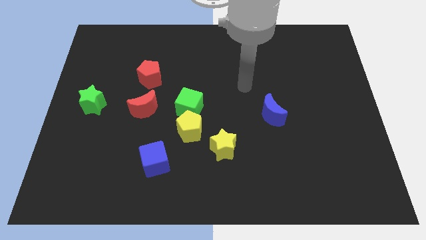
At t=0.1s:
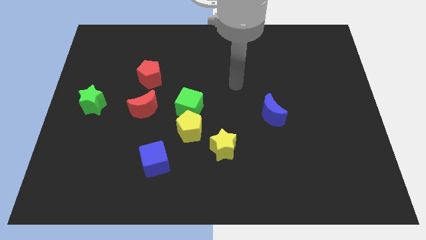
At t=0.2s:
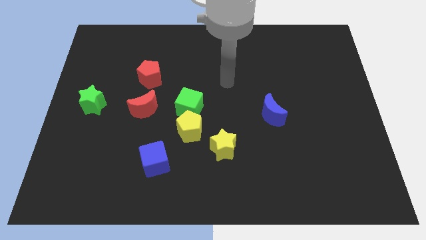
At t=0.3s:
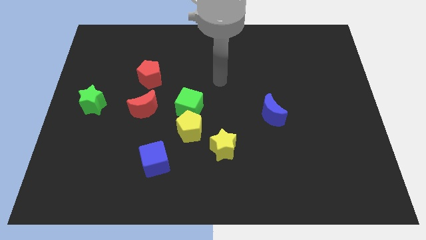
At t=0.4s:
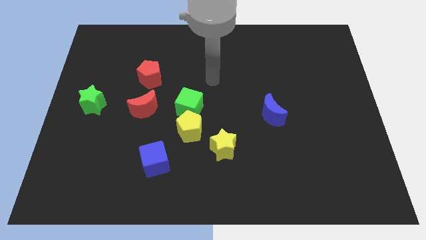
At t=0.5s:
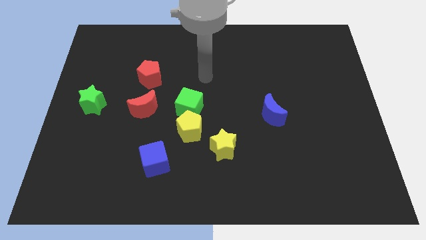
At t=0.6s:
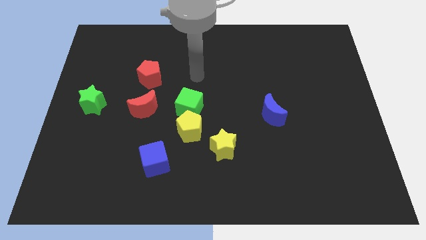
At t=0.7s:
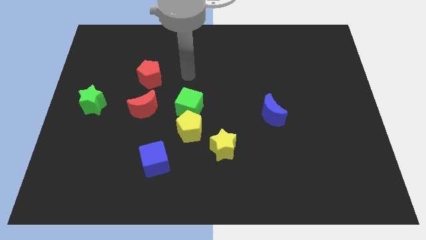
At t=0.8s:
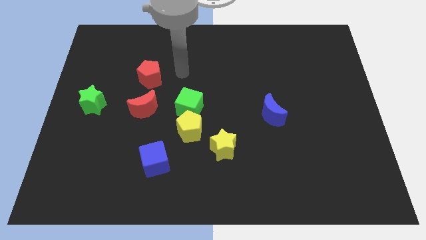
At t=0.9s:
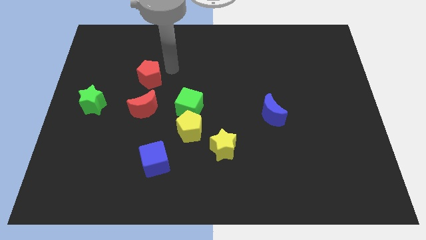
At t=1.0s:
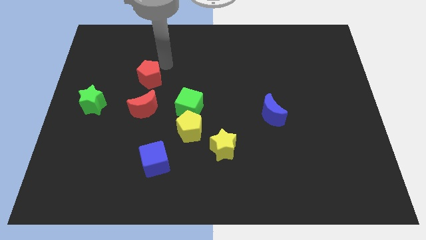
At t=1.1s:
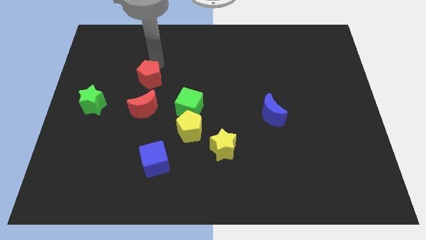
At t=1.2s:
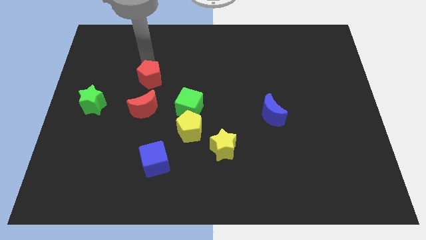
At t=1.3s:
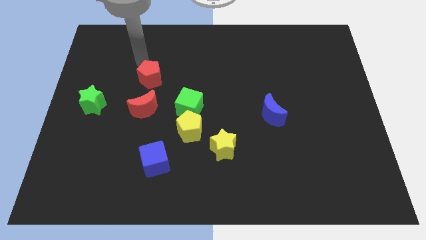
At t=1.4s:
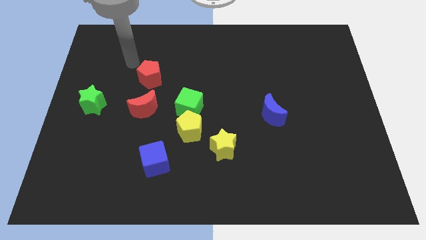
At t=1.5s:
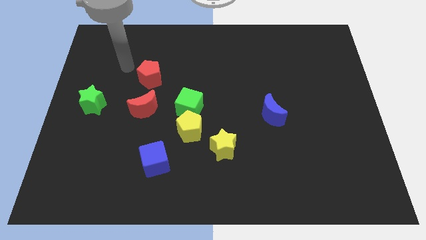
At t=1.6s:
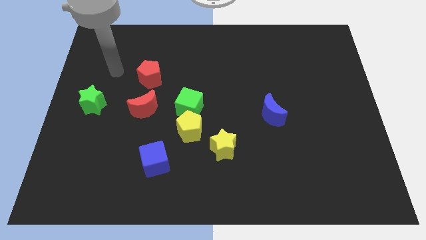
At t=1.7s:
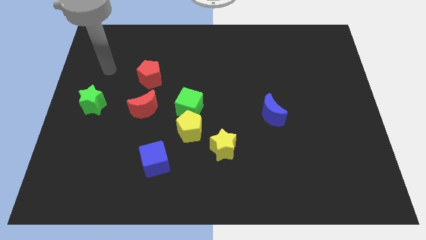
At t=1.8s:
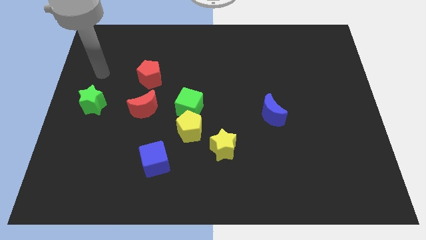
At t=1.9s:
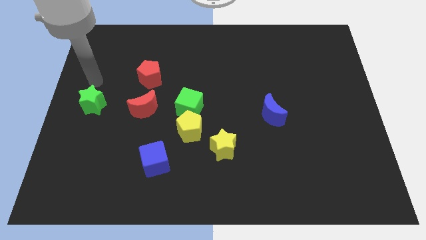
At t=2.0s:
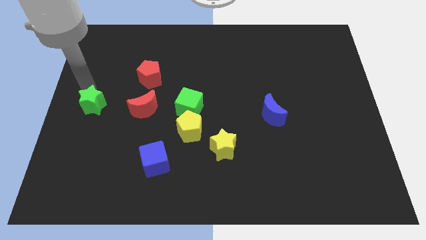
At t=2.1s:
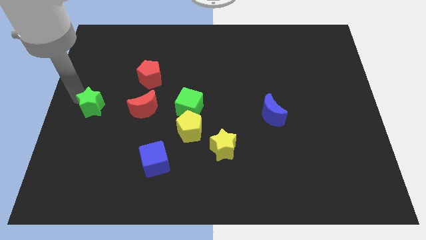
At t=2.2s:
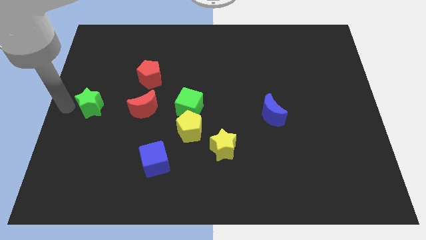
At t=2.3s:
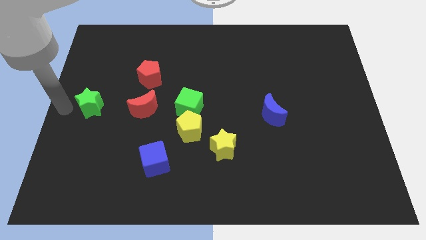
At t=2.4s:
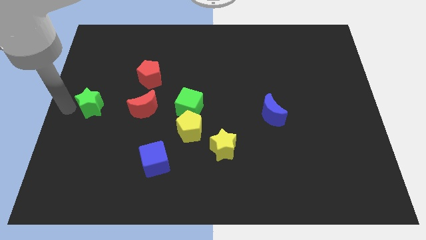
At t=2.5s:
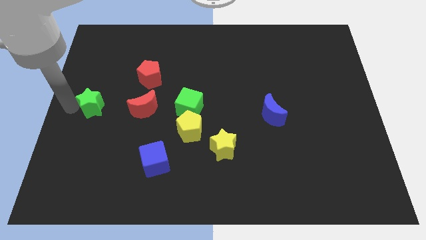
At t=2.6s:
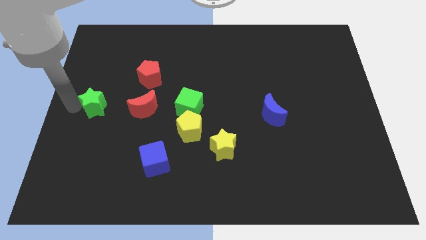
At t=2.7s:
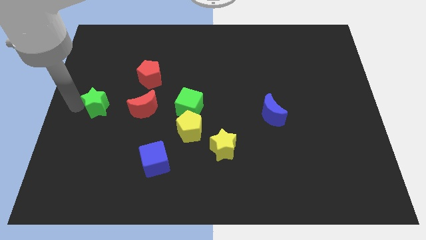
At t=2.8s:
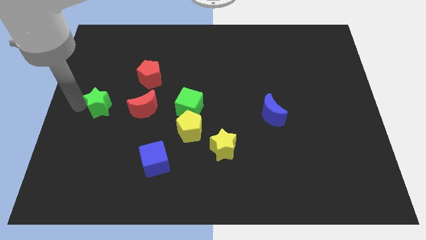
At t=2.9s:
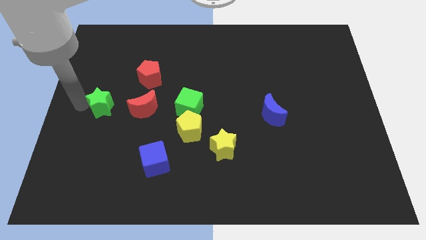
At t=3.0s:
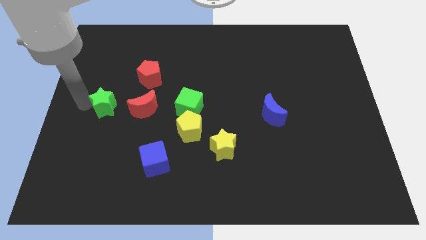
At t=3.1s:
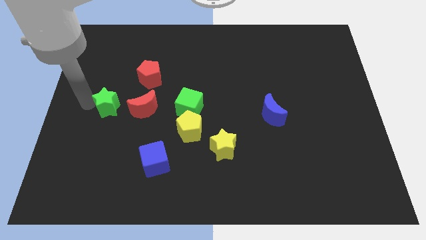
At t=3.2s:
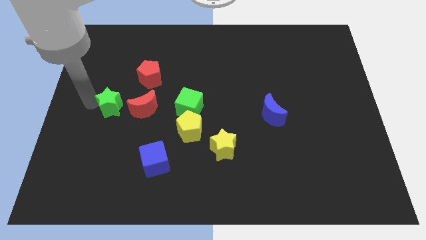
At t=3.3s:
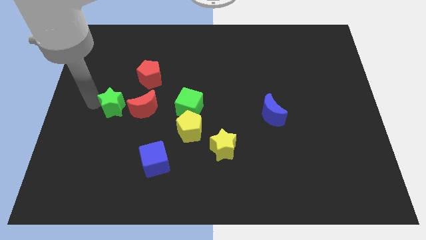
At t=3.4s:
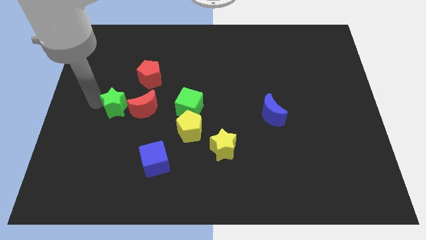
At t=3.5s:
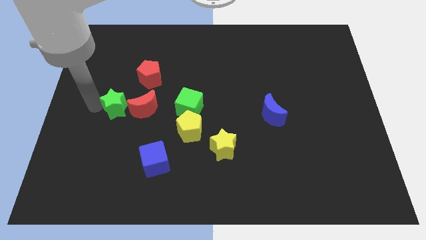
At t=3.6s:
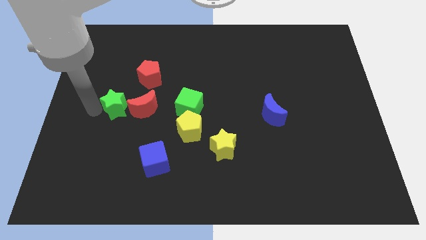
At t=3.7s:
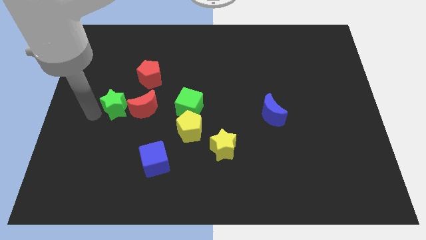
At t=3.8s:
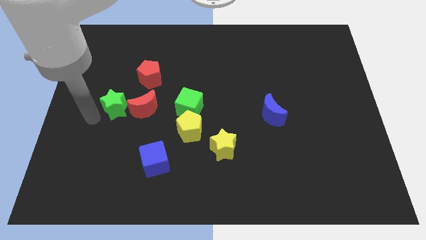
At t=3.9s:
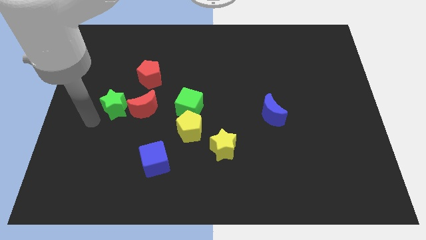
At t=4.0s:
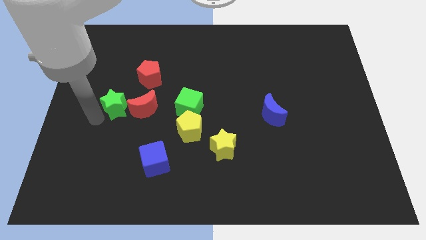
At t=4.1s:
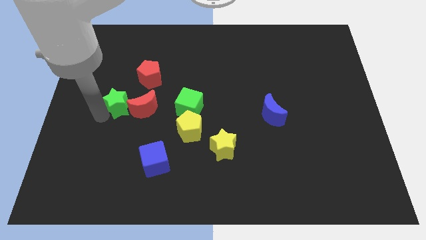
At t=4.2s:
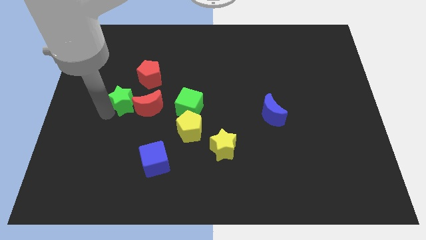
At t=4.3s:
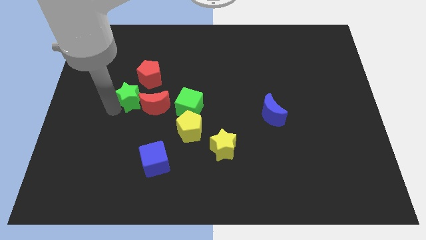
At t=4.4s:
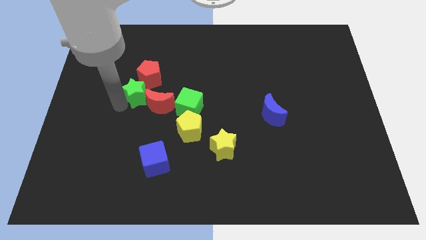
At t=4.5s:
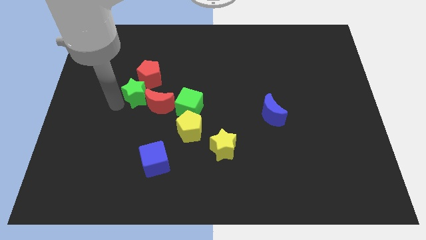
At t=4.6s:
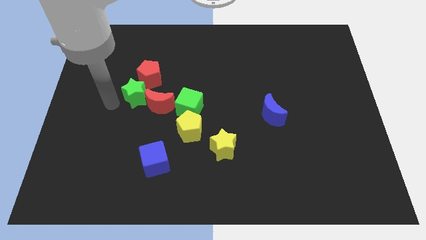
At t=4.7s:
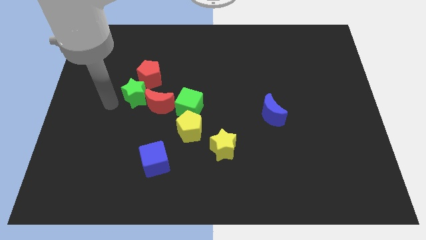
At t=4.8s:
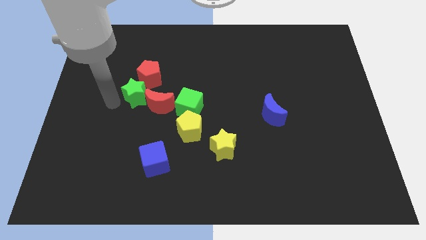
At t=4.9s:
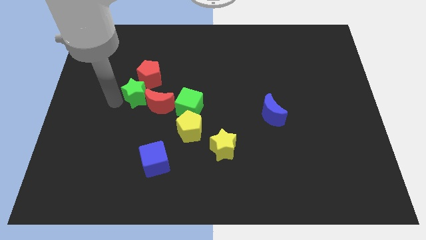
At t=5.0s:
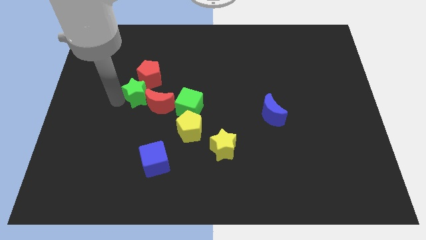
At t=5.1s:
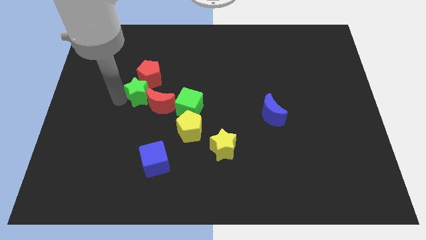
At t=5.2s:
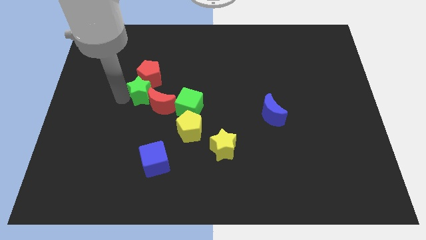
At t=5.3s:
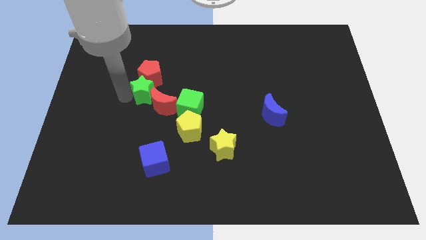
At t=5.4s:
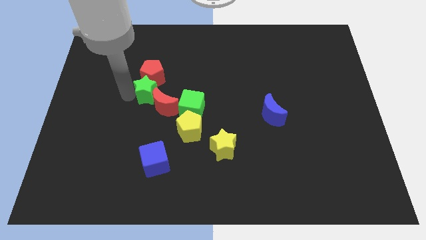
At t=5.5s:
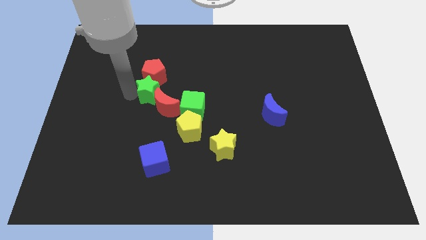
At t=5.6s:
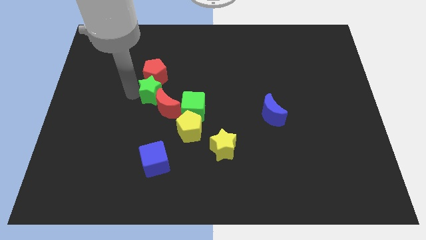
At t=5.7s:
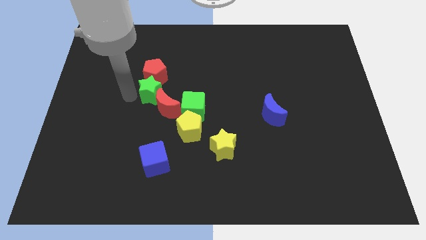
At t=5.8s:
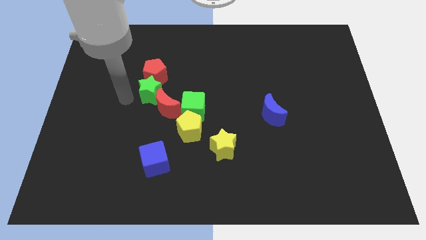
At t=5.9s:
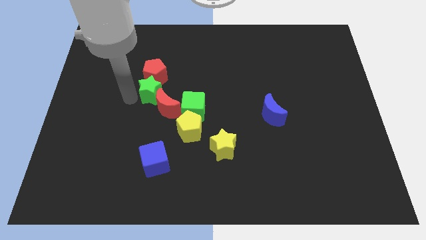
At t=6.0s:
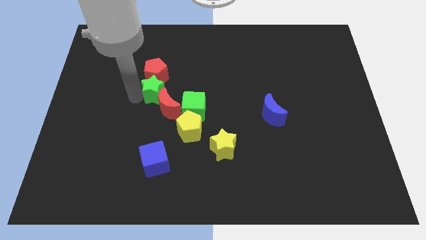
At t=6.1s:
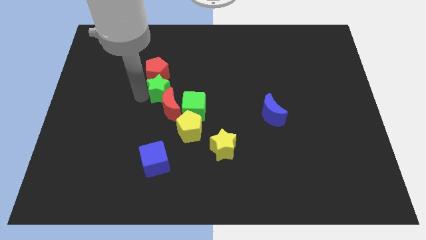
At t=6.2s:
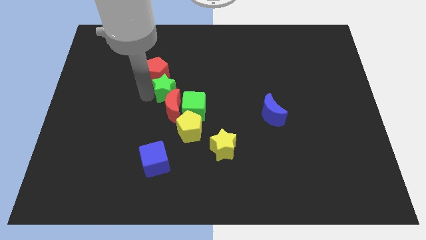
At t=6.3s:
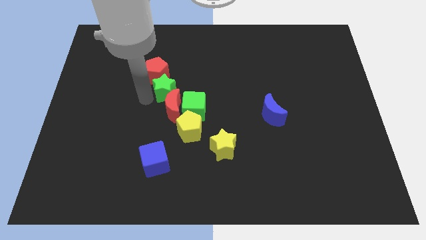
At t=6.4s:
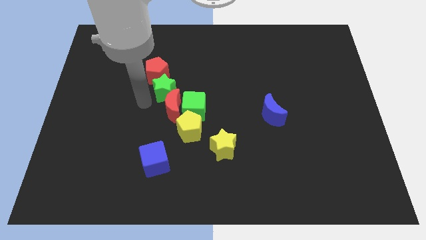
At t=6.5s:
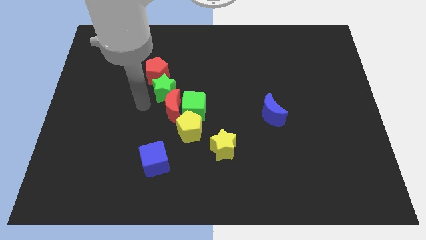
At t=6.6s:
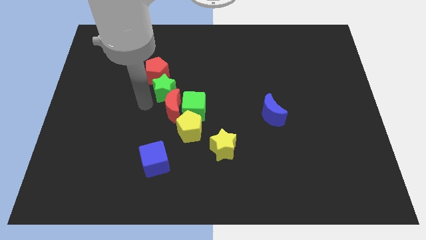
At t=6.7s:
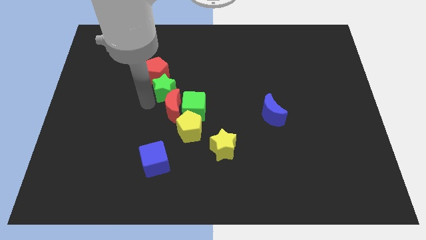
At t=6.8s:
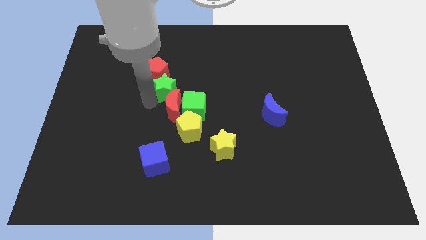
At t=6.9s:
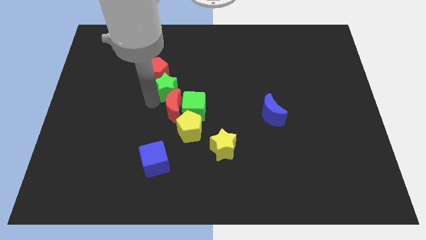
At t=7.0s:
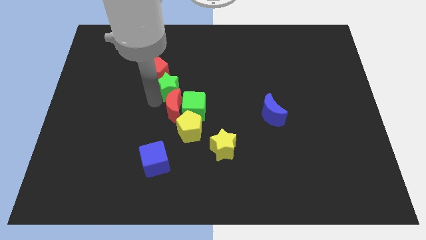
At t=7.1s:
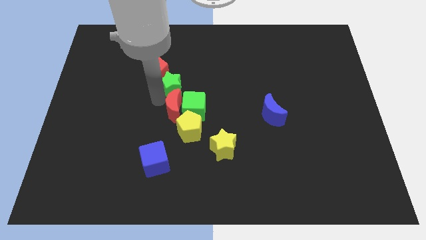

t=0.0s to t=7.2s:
put the green star right of the red pentagon
